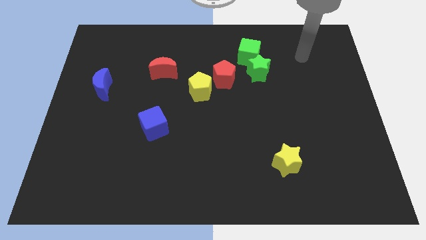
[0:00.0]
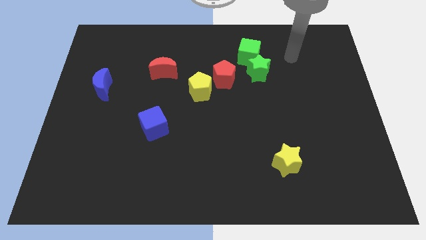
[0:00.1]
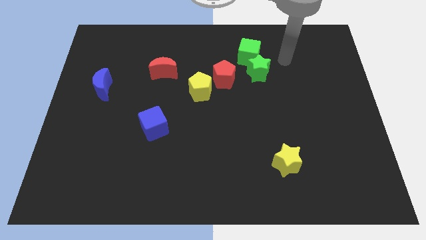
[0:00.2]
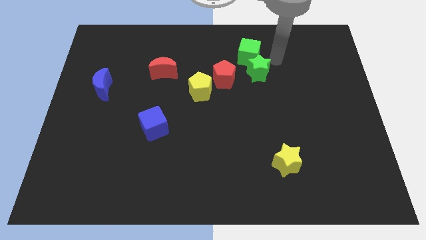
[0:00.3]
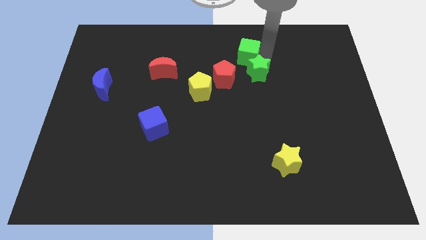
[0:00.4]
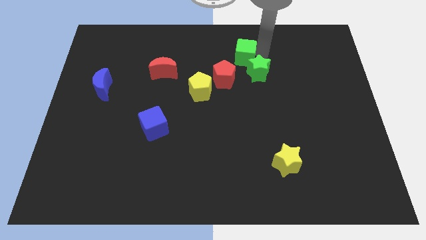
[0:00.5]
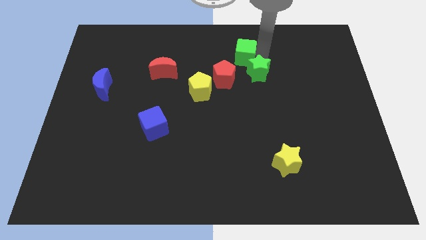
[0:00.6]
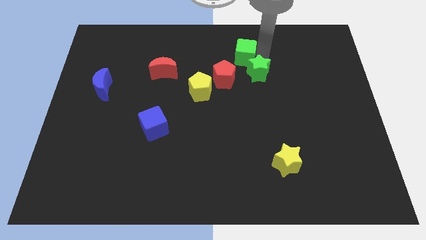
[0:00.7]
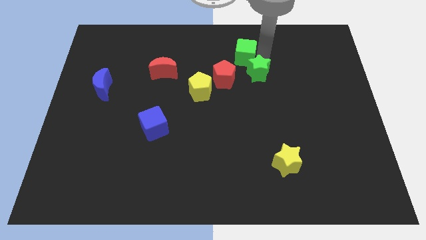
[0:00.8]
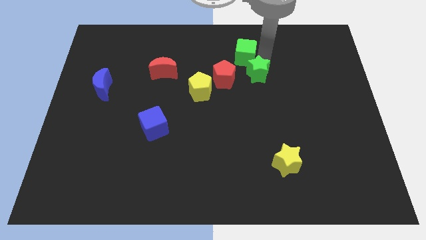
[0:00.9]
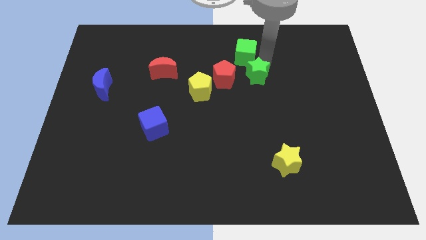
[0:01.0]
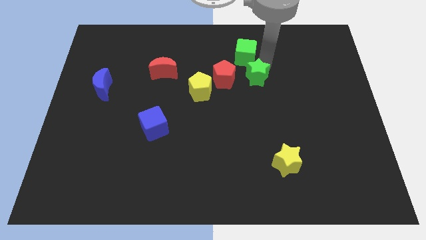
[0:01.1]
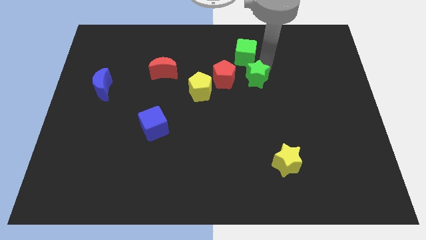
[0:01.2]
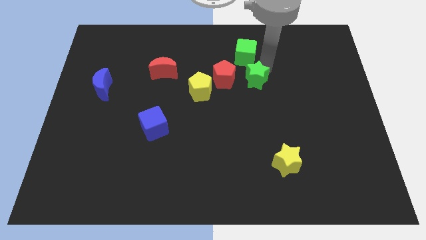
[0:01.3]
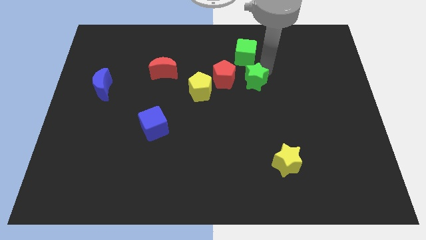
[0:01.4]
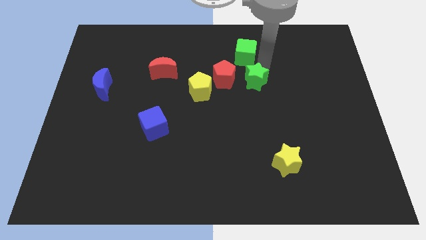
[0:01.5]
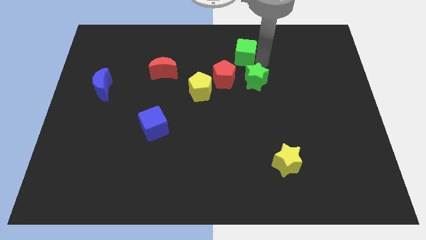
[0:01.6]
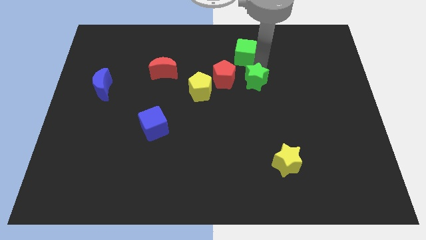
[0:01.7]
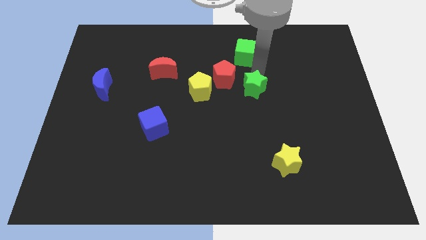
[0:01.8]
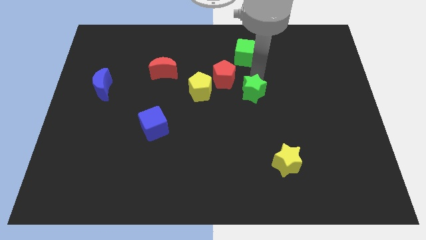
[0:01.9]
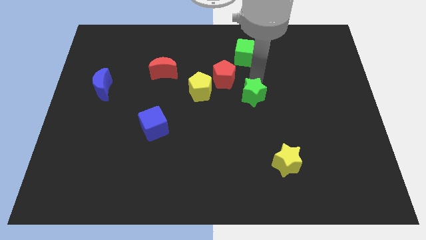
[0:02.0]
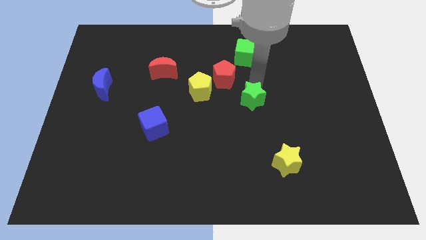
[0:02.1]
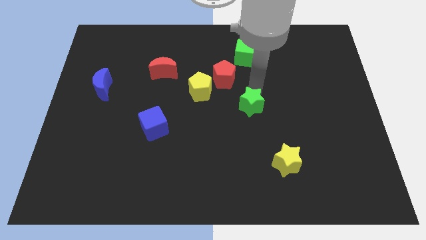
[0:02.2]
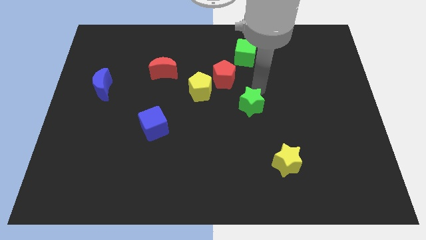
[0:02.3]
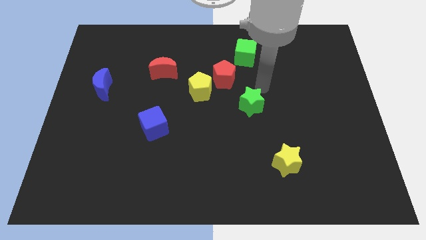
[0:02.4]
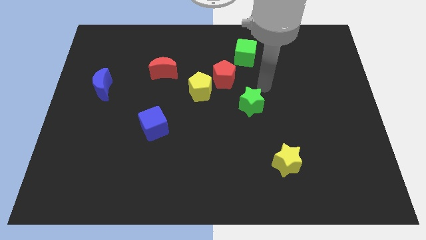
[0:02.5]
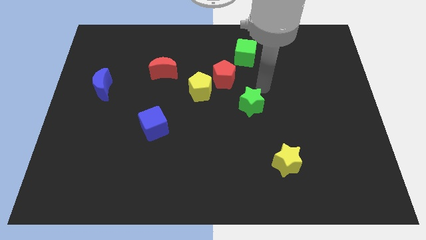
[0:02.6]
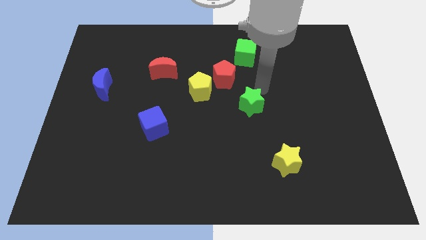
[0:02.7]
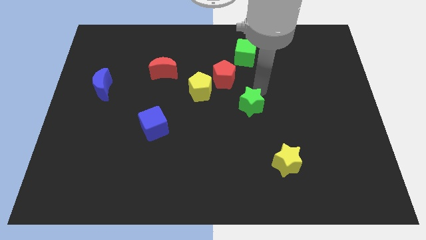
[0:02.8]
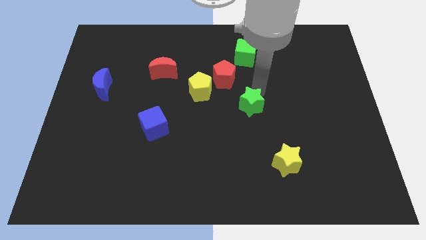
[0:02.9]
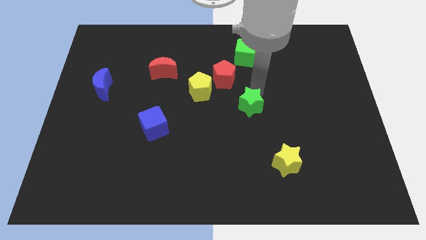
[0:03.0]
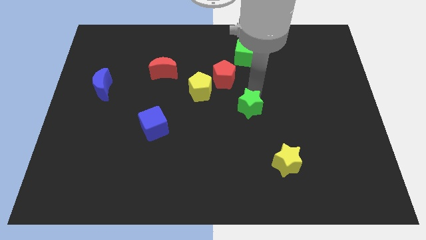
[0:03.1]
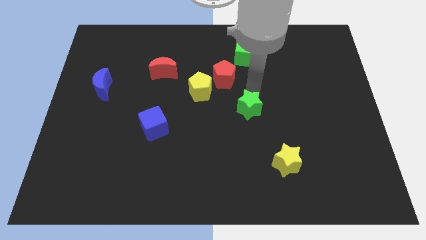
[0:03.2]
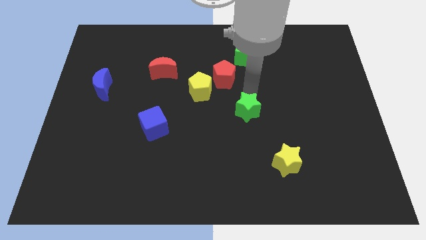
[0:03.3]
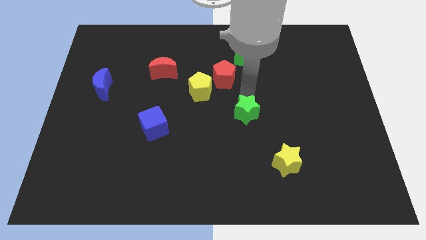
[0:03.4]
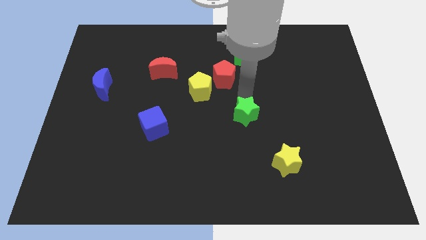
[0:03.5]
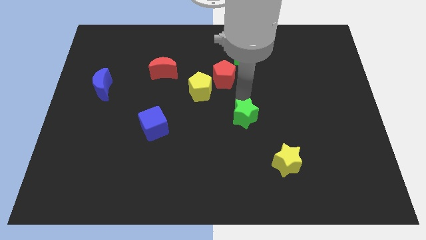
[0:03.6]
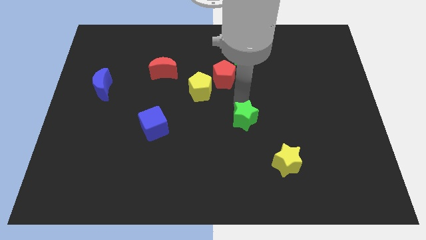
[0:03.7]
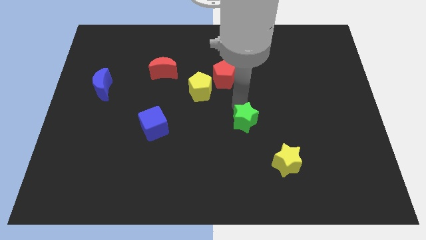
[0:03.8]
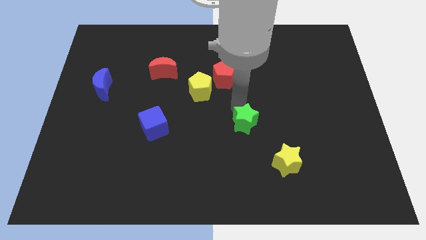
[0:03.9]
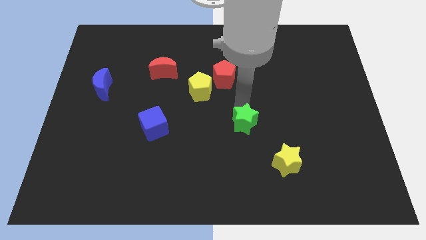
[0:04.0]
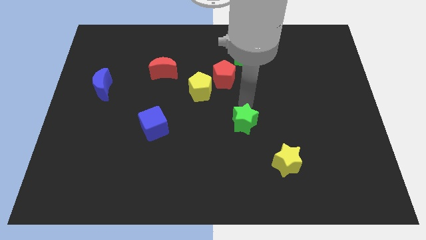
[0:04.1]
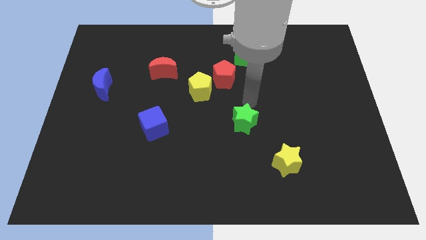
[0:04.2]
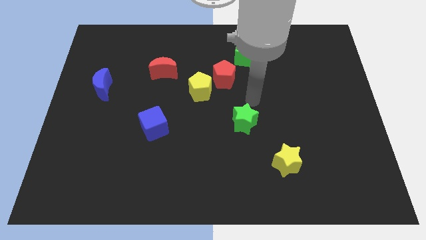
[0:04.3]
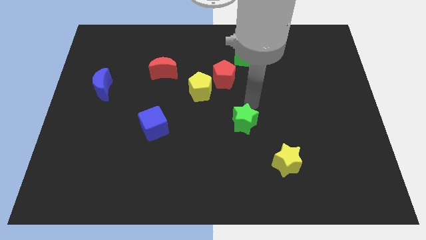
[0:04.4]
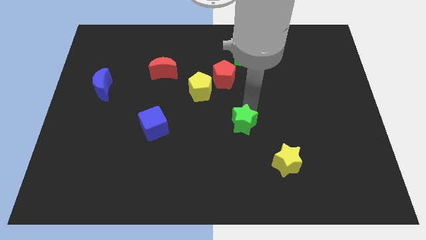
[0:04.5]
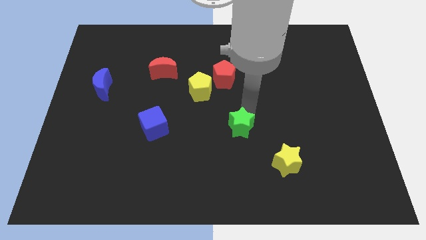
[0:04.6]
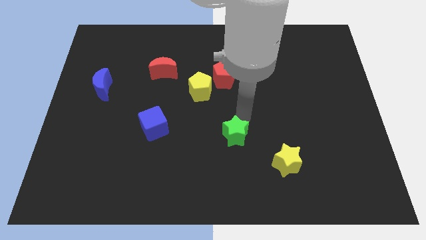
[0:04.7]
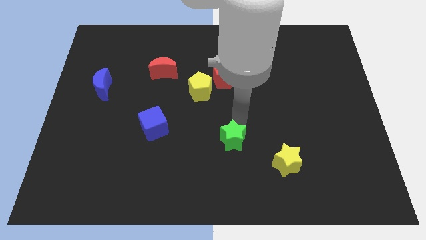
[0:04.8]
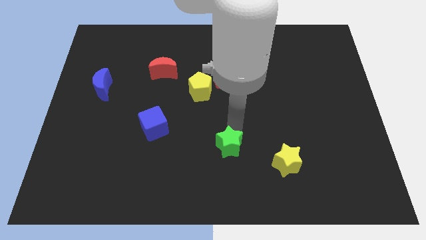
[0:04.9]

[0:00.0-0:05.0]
put the green star left of the yellow star

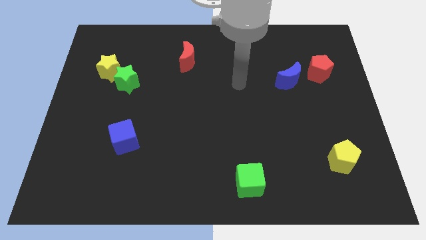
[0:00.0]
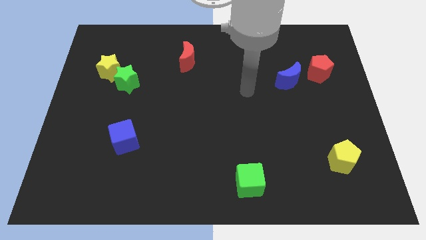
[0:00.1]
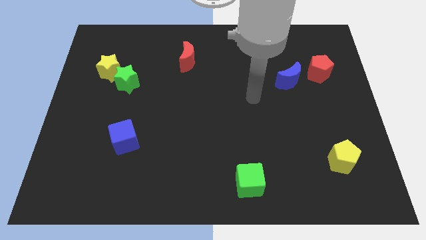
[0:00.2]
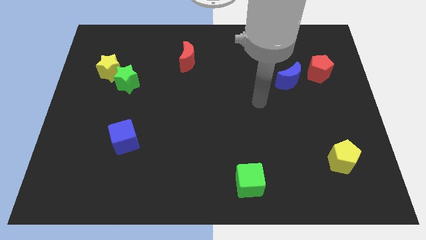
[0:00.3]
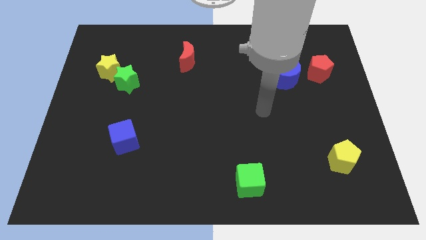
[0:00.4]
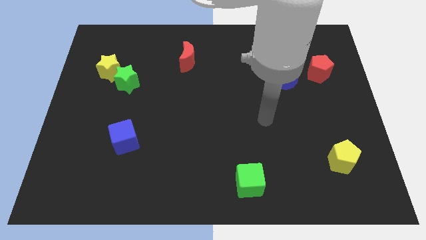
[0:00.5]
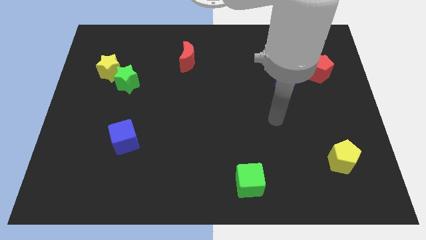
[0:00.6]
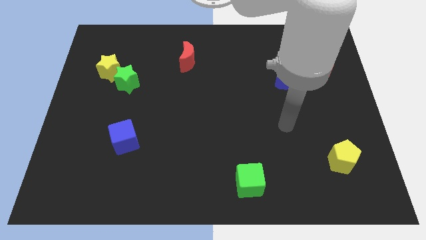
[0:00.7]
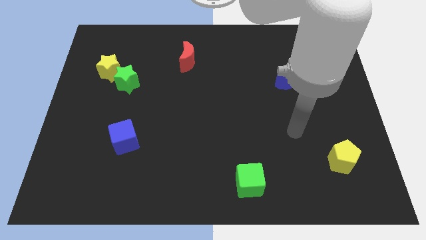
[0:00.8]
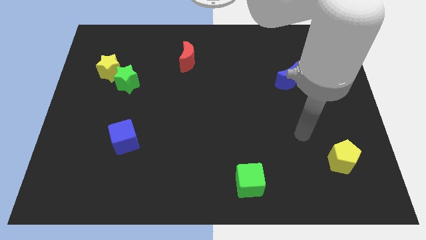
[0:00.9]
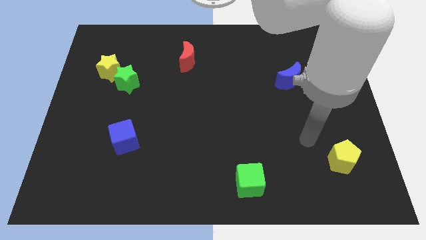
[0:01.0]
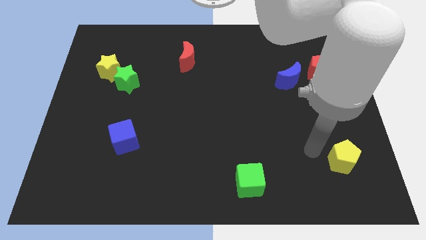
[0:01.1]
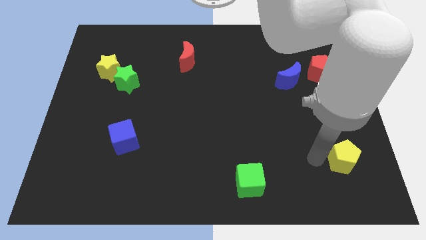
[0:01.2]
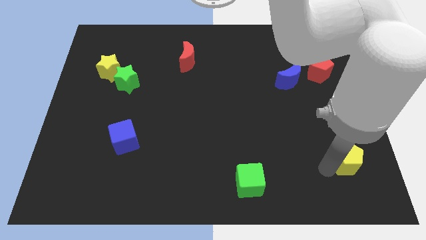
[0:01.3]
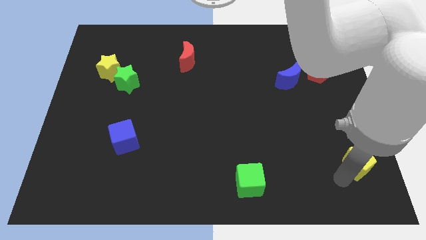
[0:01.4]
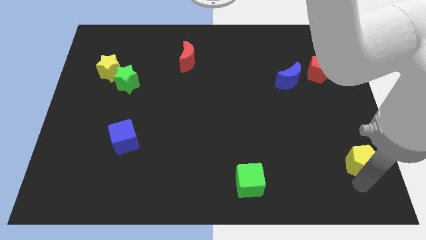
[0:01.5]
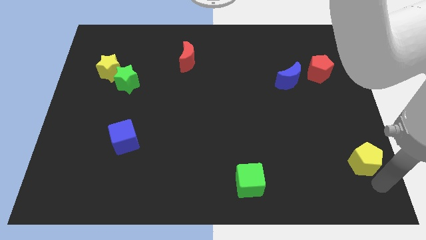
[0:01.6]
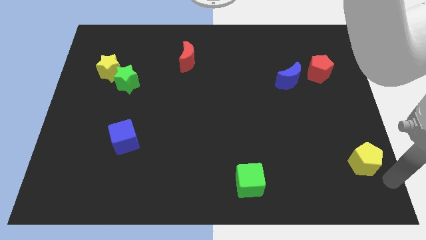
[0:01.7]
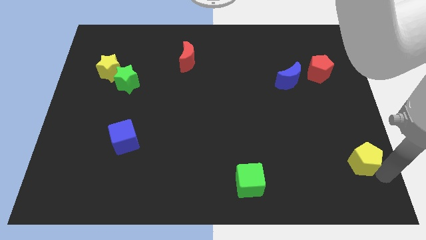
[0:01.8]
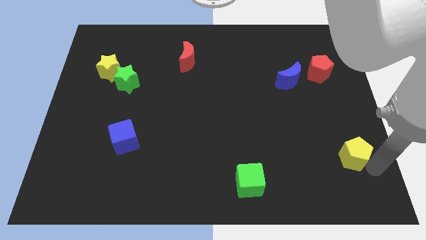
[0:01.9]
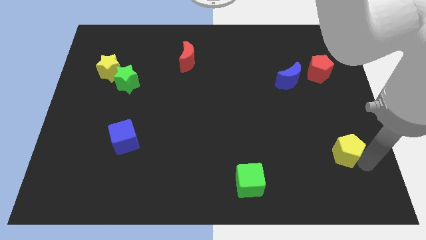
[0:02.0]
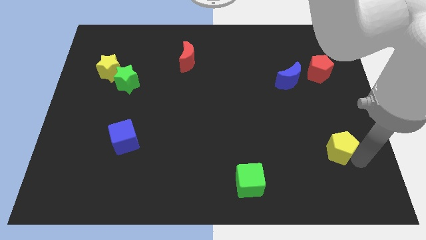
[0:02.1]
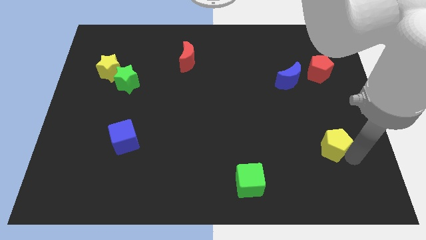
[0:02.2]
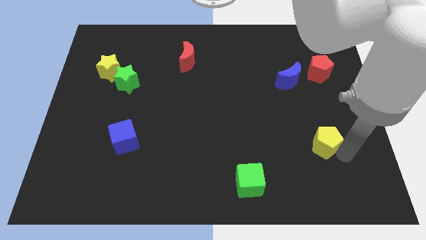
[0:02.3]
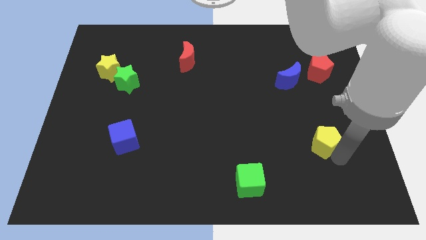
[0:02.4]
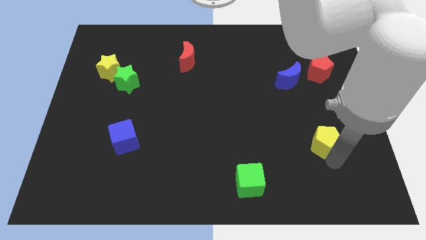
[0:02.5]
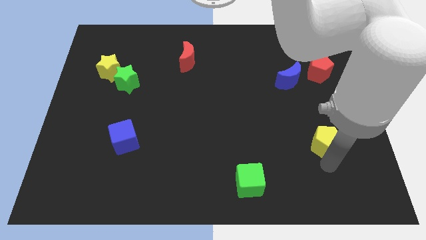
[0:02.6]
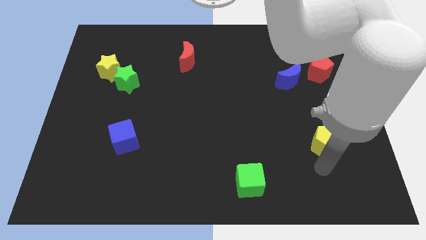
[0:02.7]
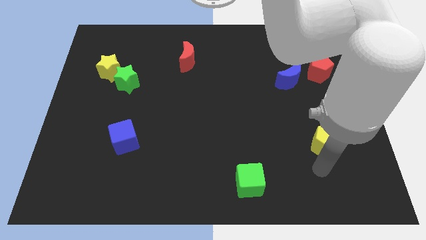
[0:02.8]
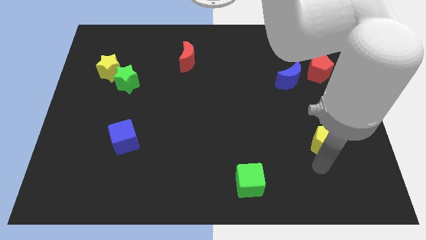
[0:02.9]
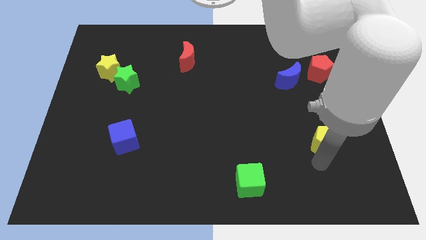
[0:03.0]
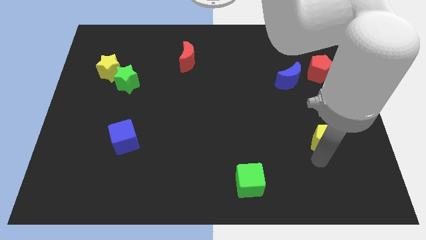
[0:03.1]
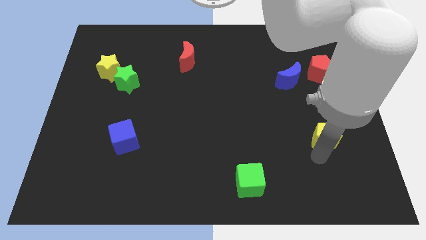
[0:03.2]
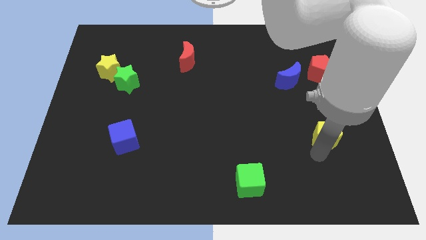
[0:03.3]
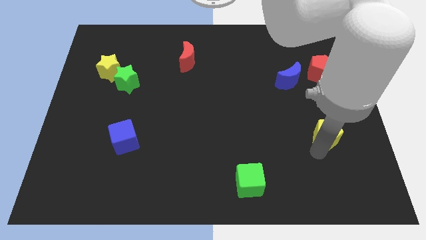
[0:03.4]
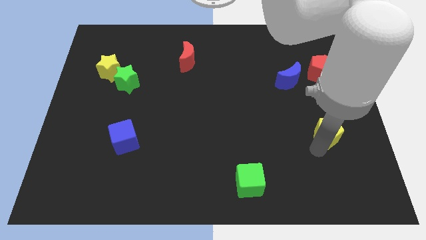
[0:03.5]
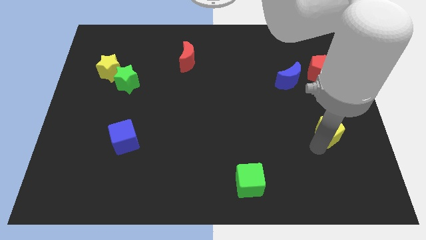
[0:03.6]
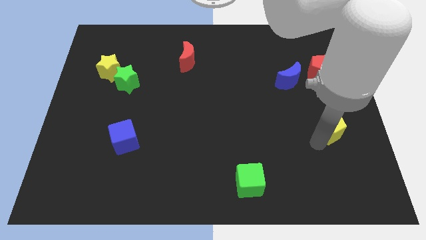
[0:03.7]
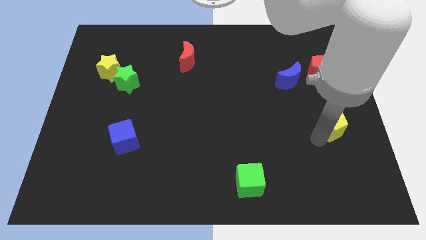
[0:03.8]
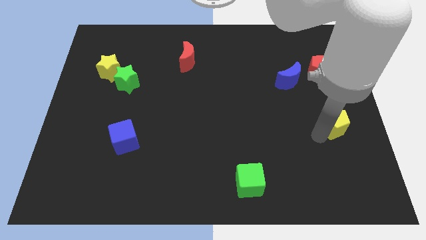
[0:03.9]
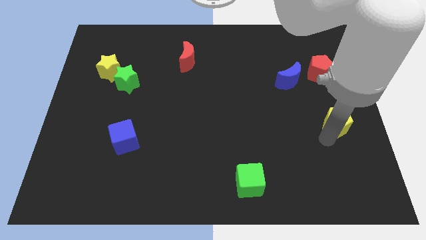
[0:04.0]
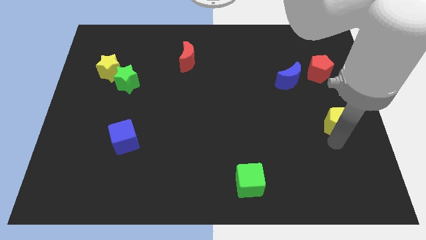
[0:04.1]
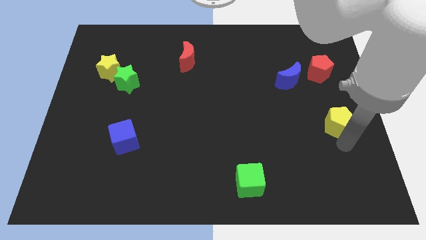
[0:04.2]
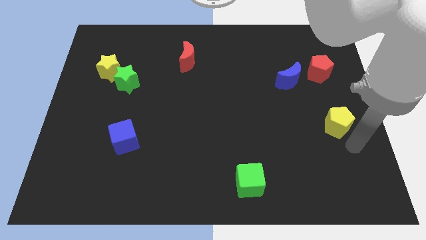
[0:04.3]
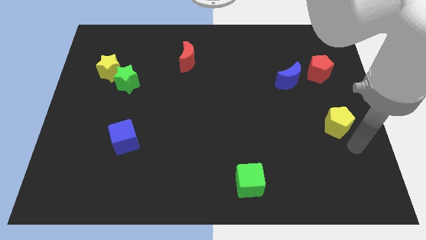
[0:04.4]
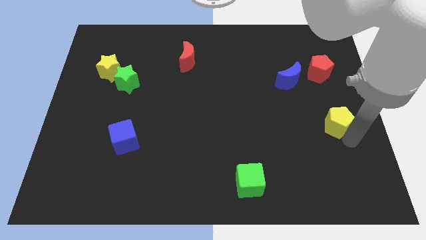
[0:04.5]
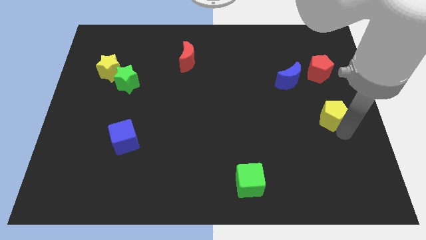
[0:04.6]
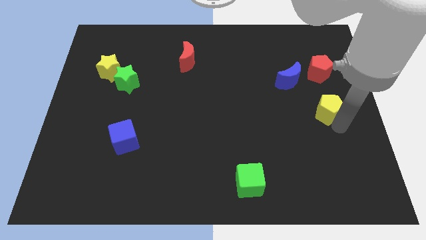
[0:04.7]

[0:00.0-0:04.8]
move the yellow pentagon diagonally down and to the right of the blue moon
